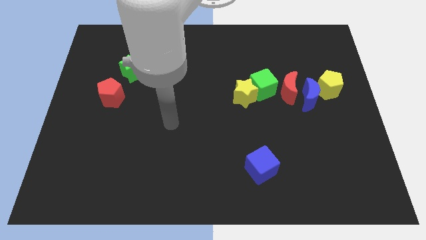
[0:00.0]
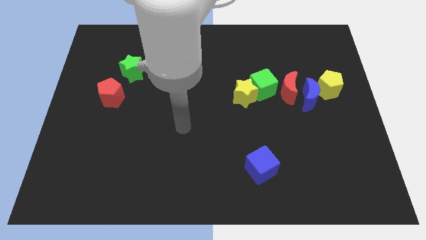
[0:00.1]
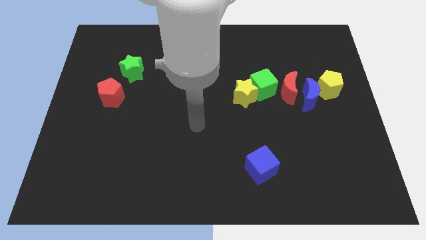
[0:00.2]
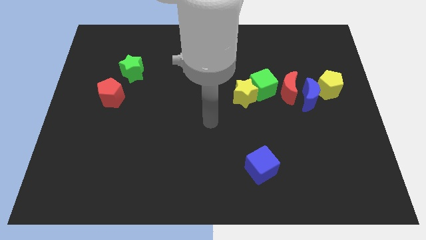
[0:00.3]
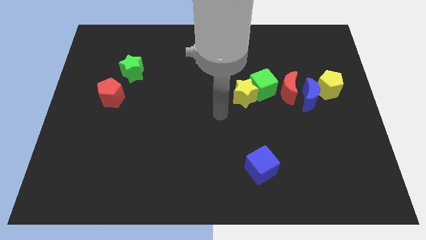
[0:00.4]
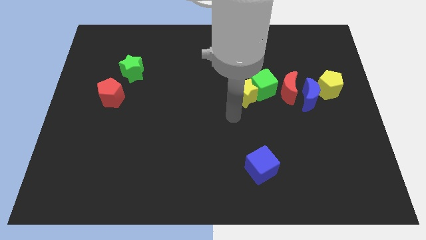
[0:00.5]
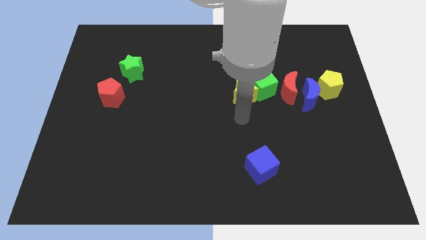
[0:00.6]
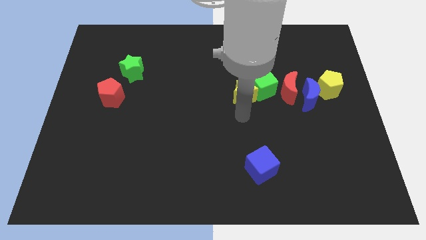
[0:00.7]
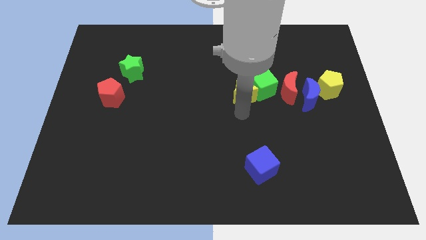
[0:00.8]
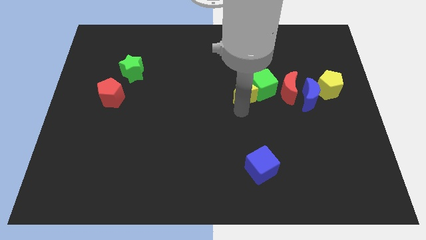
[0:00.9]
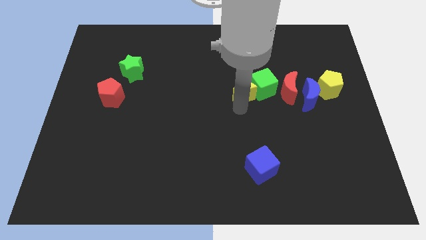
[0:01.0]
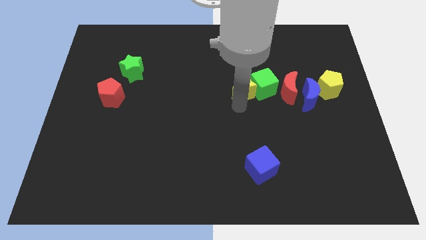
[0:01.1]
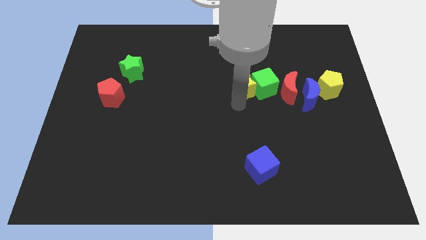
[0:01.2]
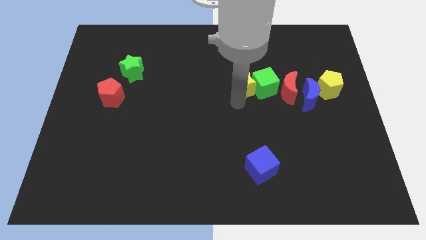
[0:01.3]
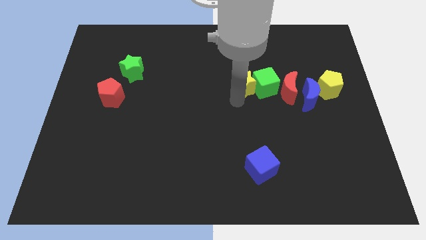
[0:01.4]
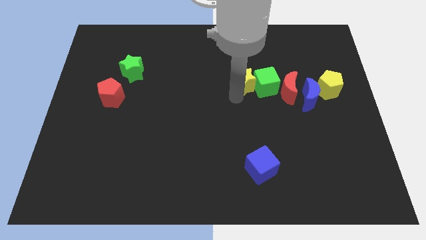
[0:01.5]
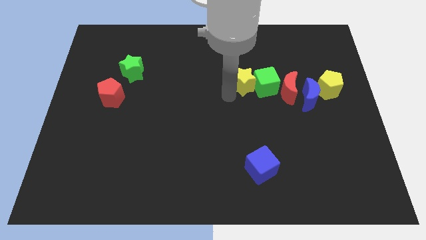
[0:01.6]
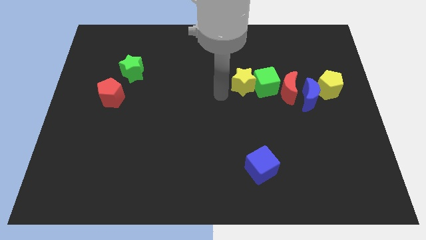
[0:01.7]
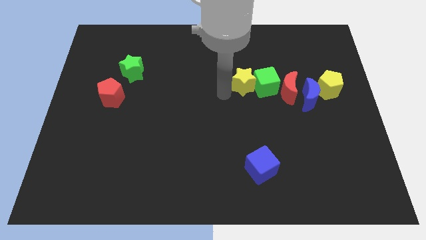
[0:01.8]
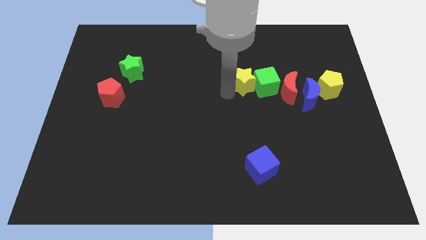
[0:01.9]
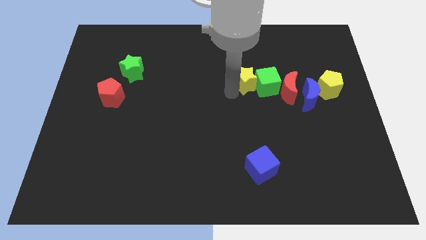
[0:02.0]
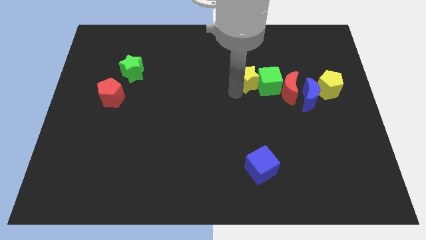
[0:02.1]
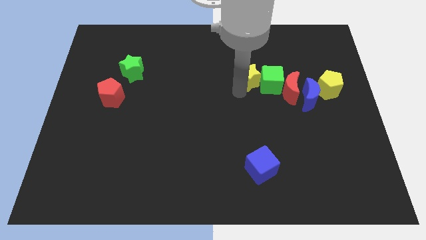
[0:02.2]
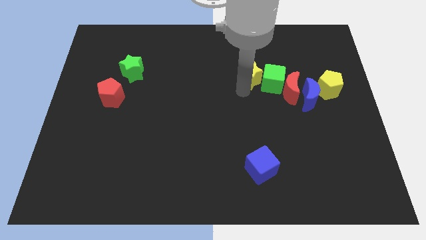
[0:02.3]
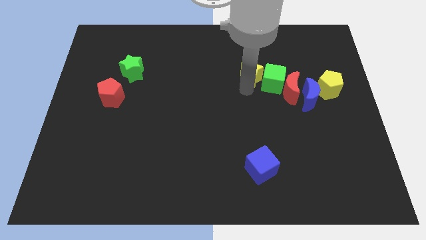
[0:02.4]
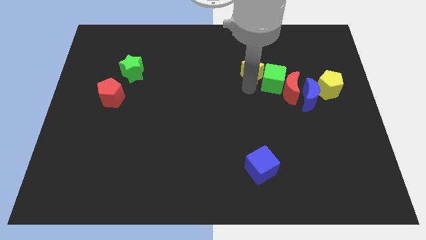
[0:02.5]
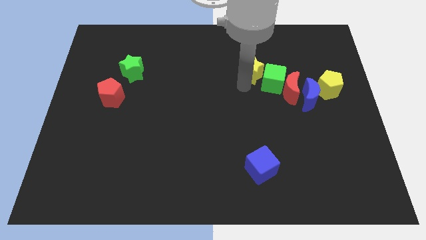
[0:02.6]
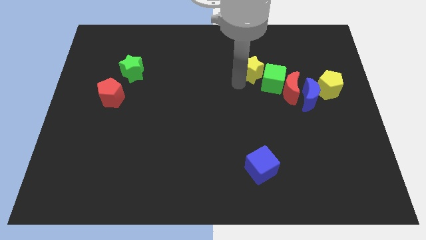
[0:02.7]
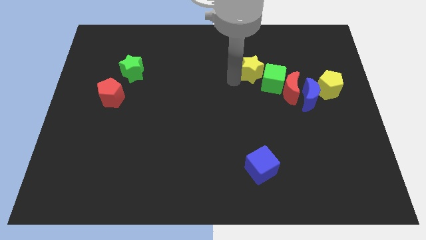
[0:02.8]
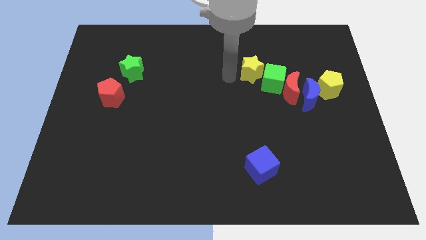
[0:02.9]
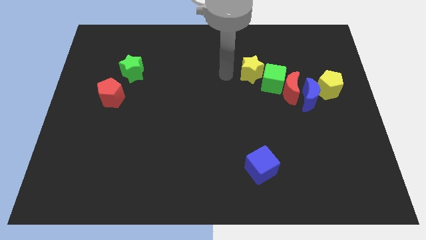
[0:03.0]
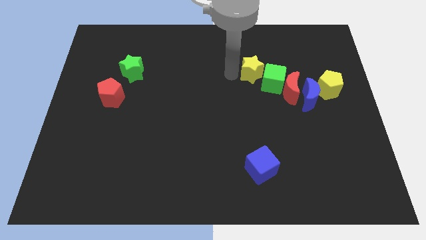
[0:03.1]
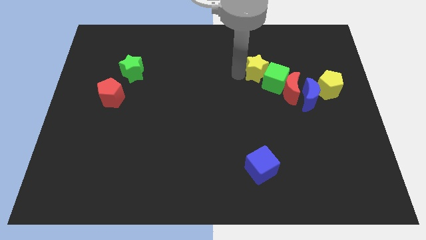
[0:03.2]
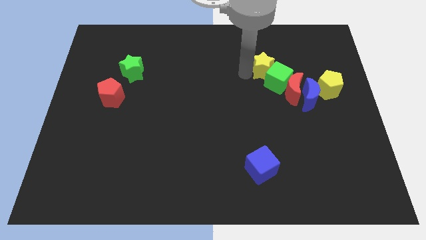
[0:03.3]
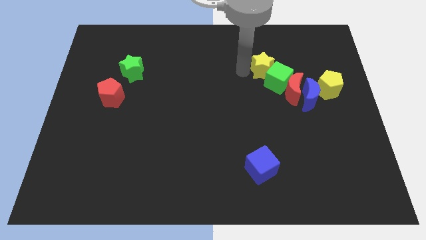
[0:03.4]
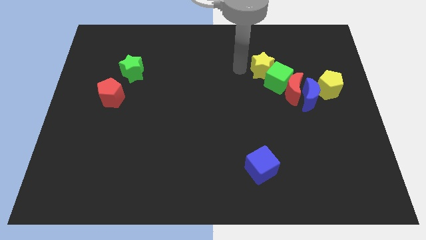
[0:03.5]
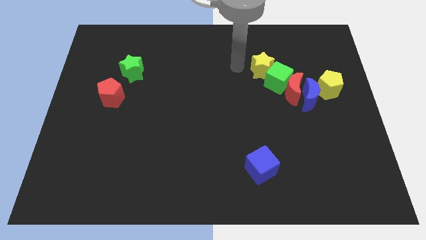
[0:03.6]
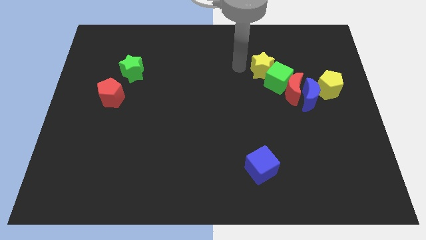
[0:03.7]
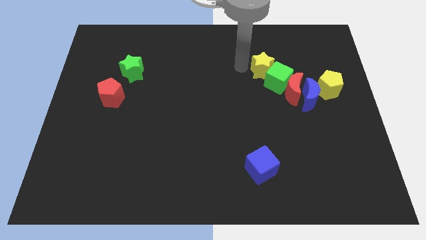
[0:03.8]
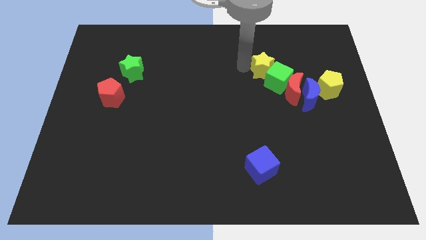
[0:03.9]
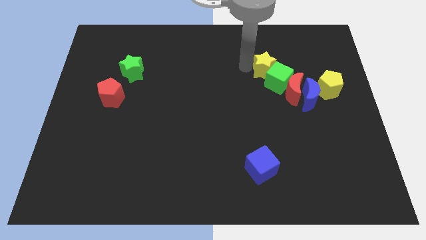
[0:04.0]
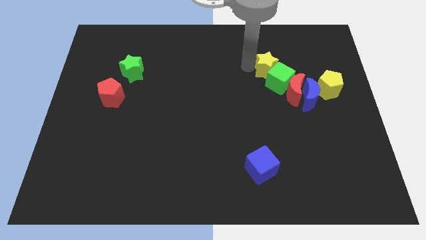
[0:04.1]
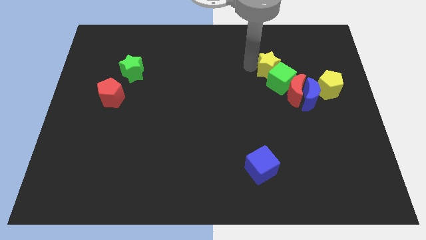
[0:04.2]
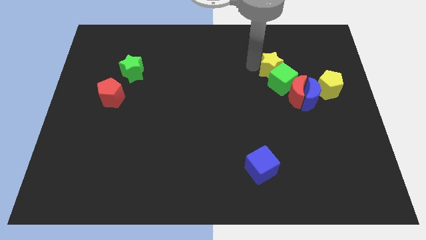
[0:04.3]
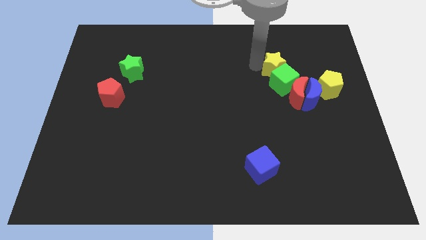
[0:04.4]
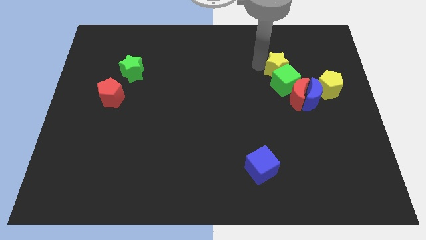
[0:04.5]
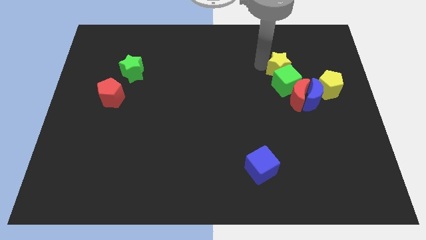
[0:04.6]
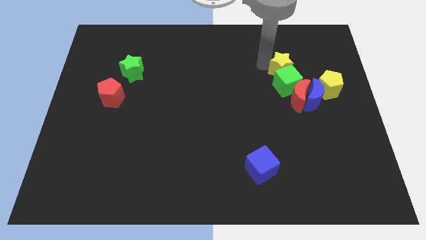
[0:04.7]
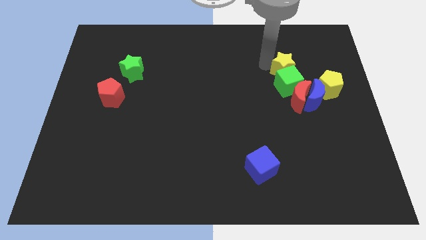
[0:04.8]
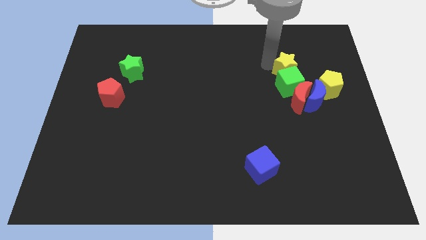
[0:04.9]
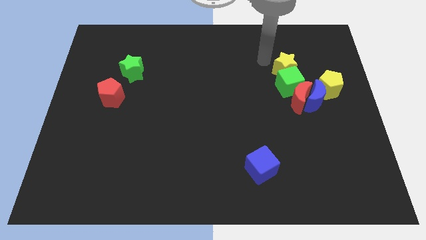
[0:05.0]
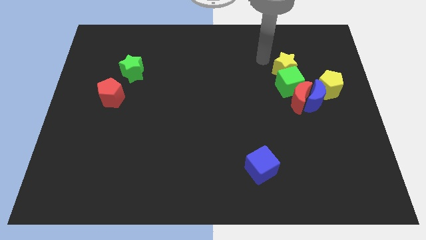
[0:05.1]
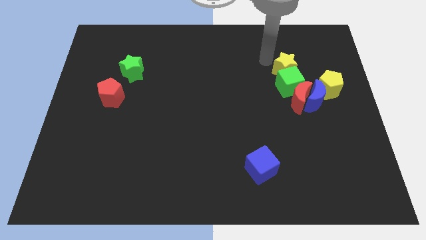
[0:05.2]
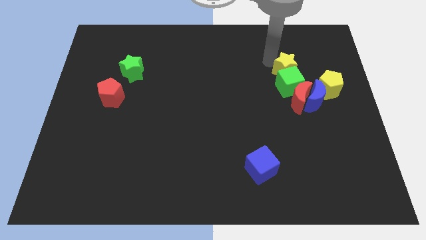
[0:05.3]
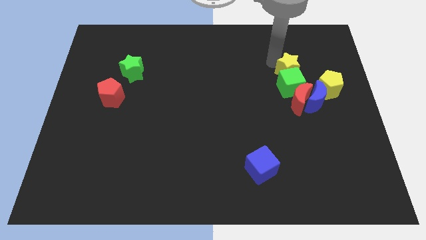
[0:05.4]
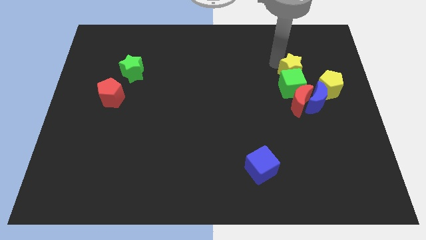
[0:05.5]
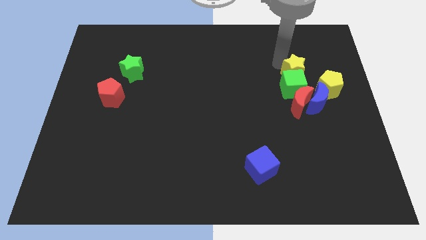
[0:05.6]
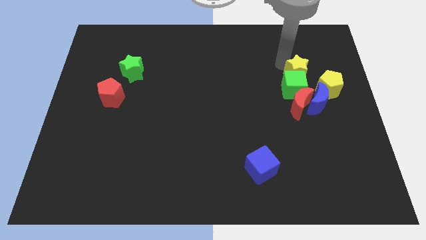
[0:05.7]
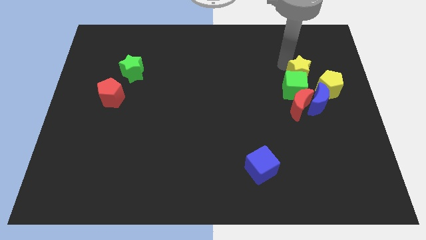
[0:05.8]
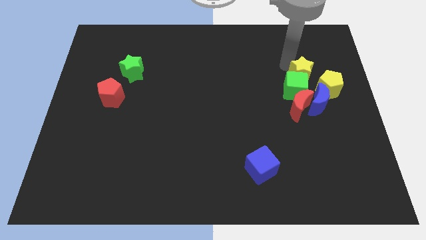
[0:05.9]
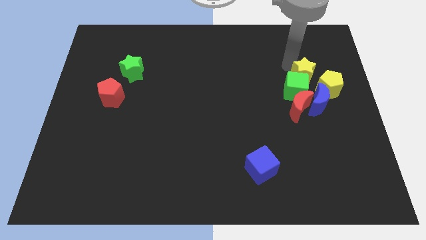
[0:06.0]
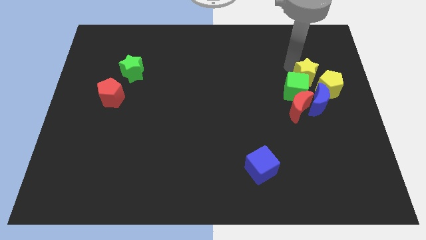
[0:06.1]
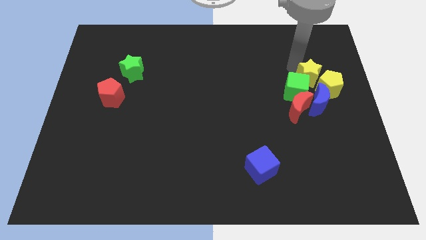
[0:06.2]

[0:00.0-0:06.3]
push the yellow star to the yellow pentagon
